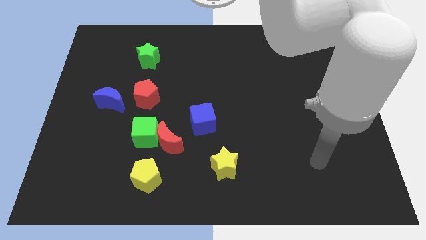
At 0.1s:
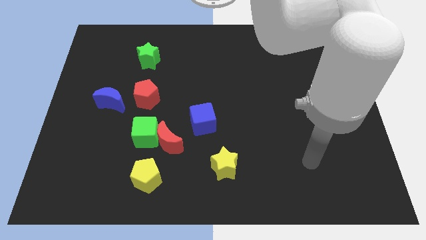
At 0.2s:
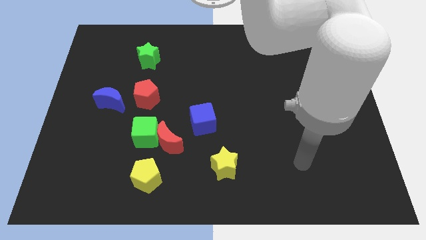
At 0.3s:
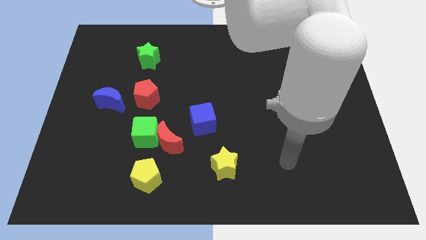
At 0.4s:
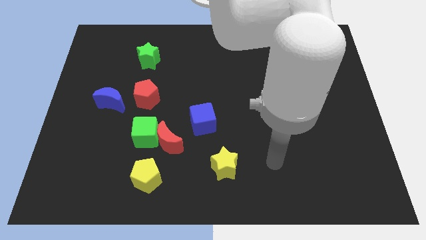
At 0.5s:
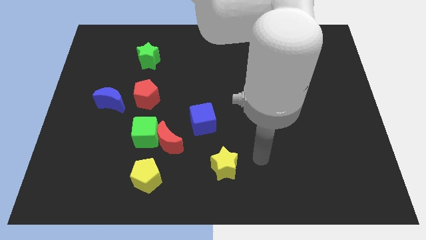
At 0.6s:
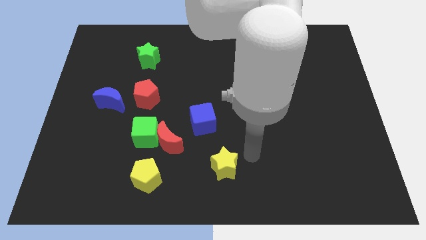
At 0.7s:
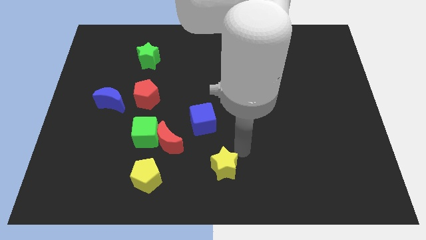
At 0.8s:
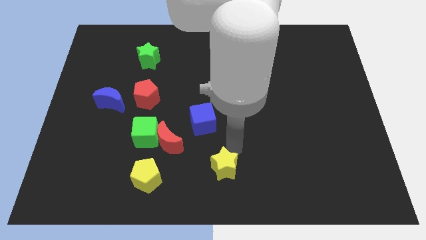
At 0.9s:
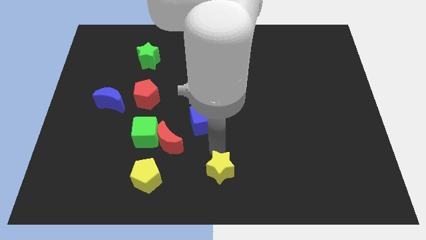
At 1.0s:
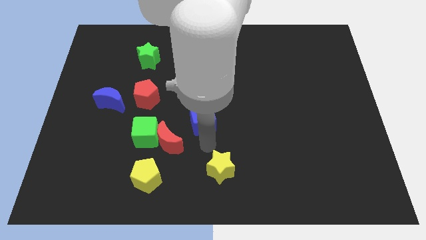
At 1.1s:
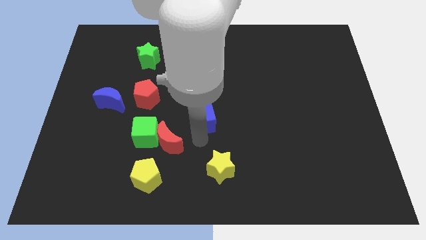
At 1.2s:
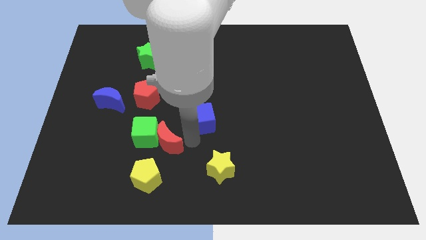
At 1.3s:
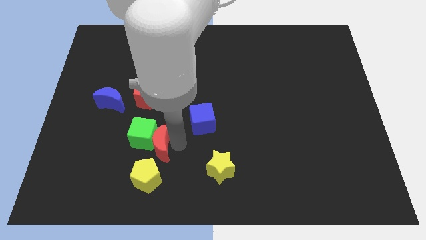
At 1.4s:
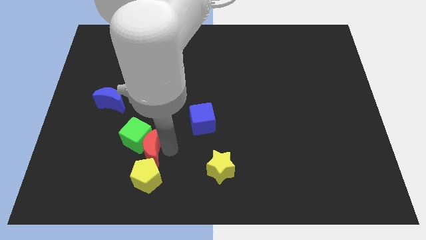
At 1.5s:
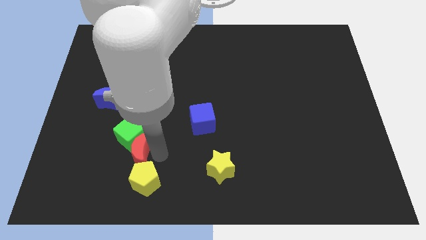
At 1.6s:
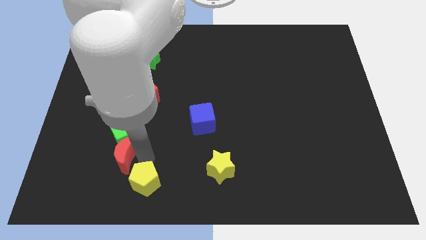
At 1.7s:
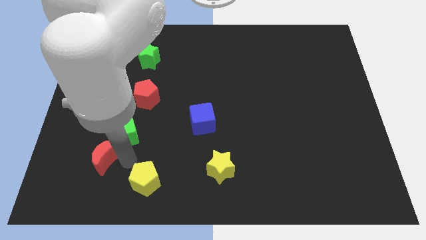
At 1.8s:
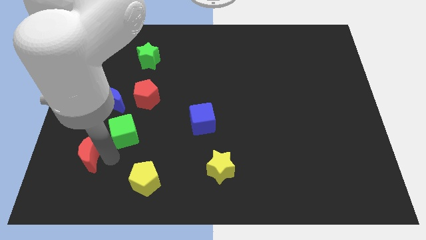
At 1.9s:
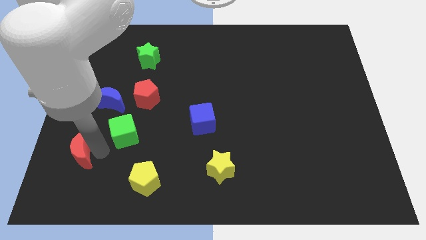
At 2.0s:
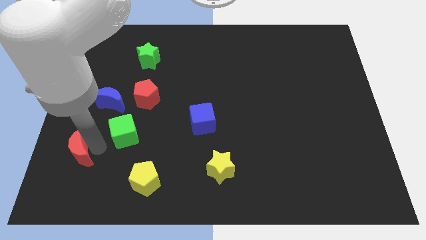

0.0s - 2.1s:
pull the green cube apart from the red moon

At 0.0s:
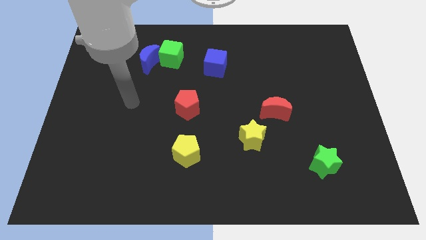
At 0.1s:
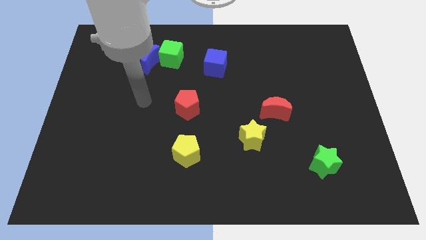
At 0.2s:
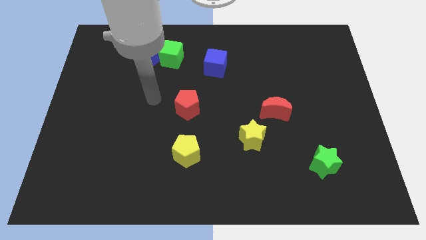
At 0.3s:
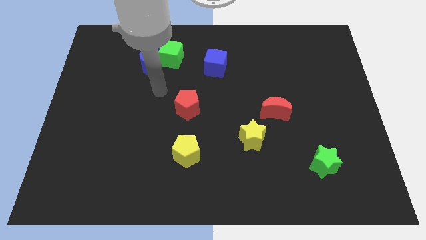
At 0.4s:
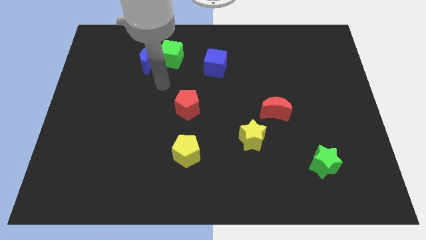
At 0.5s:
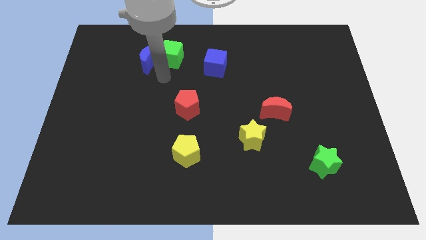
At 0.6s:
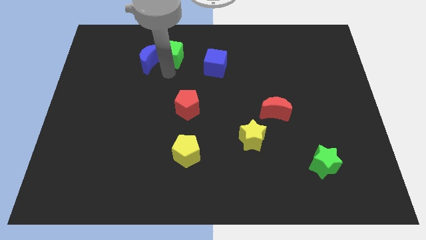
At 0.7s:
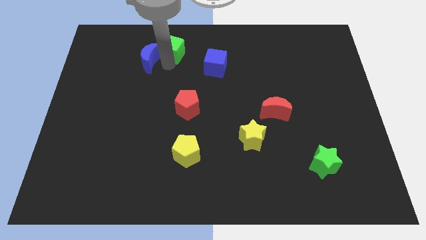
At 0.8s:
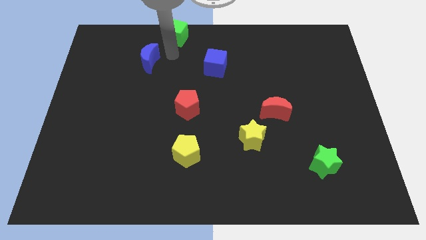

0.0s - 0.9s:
pull the blue moon apart from the green cube

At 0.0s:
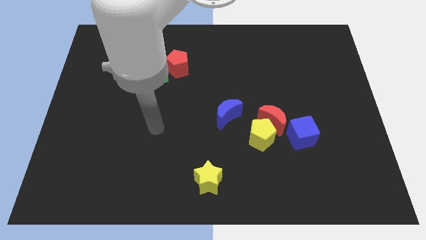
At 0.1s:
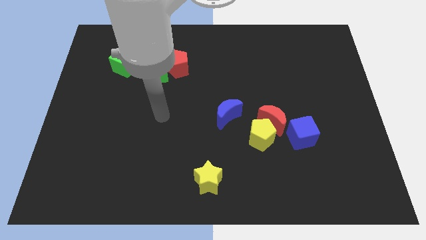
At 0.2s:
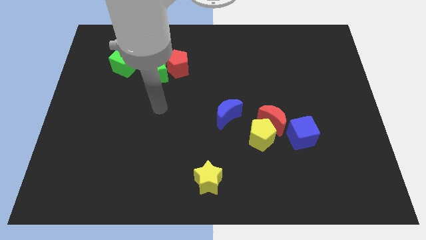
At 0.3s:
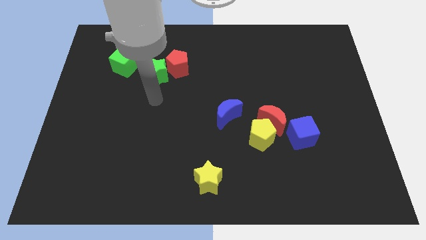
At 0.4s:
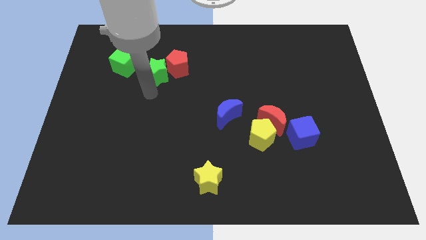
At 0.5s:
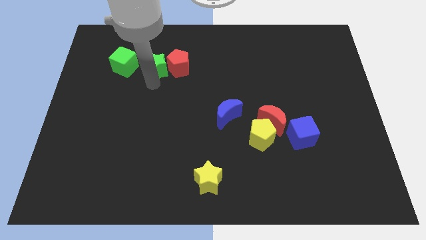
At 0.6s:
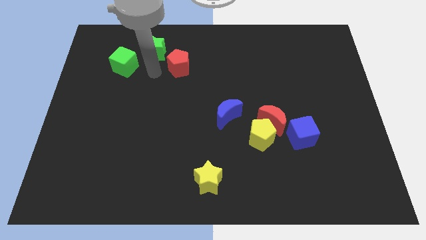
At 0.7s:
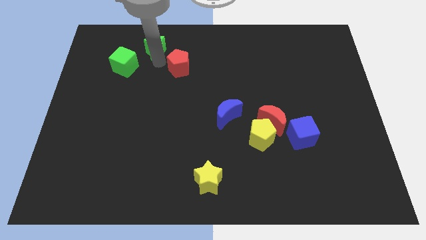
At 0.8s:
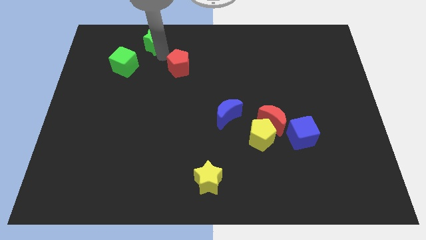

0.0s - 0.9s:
separate the red pentagon from the green star

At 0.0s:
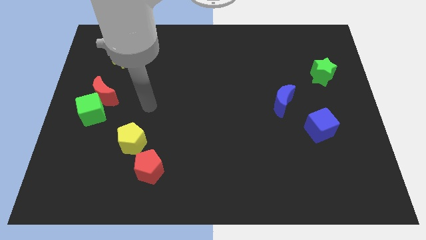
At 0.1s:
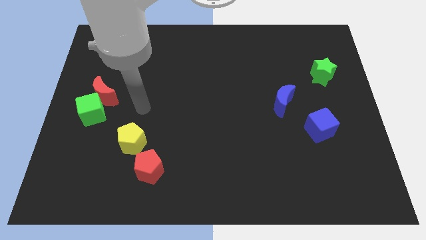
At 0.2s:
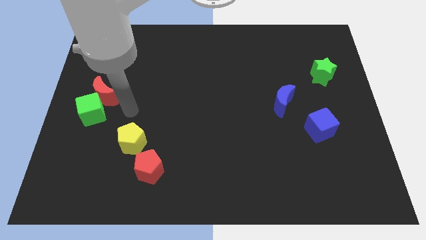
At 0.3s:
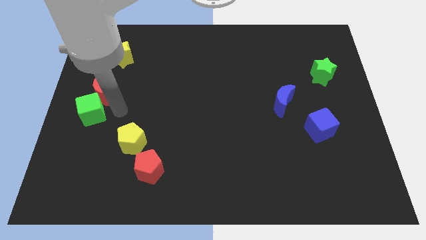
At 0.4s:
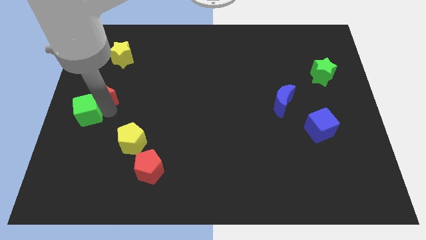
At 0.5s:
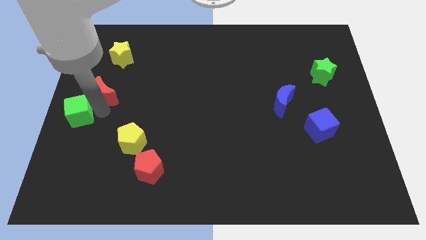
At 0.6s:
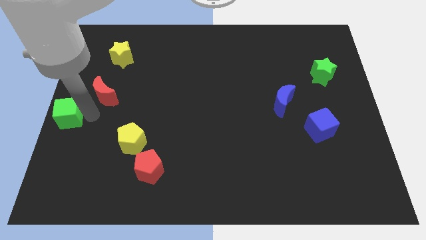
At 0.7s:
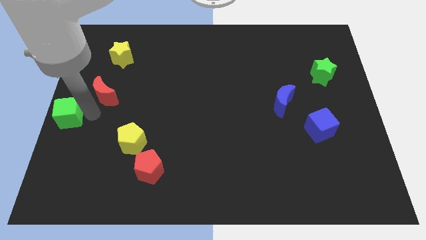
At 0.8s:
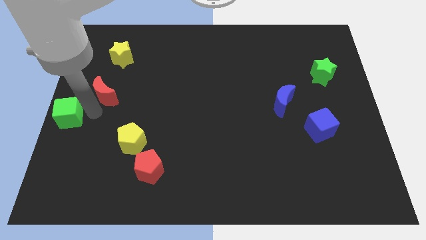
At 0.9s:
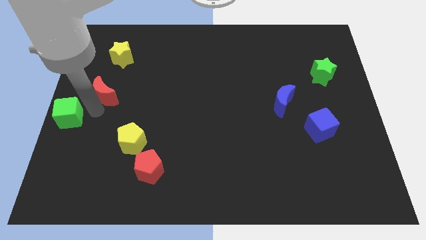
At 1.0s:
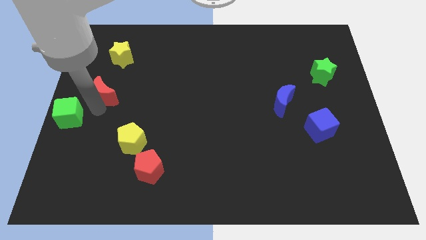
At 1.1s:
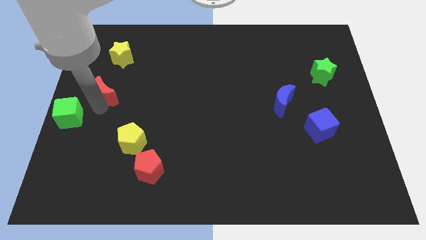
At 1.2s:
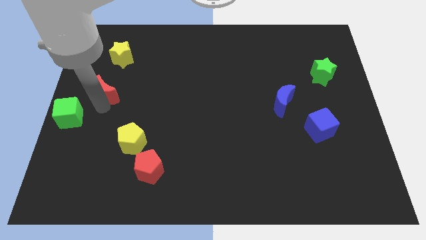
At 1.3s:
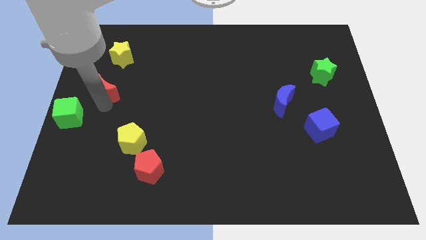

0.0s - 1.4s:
pull the red moon apart from the green cube

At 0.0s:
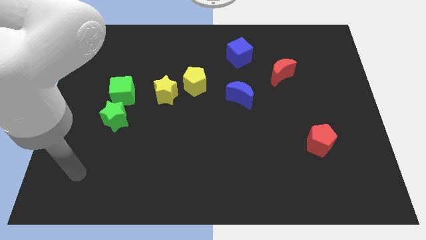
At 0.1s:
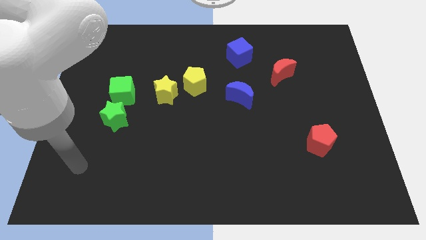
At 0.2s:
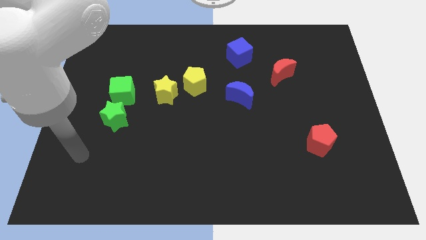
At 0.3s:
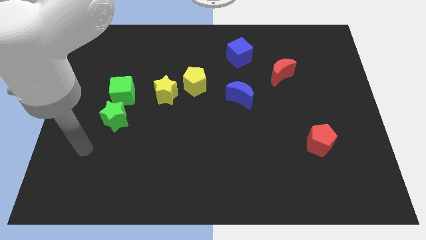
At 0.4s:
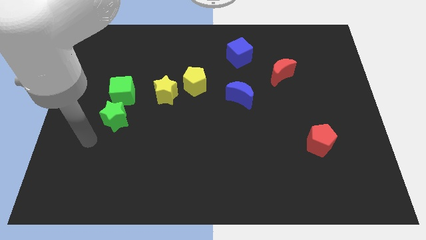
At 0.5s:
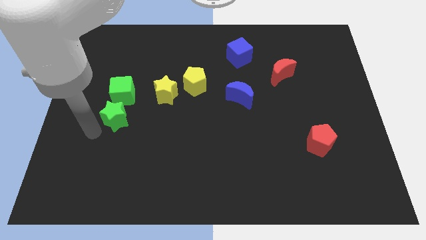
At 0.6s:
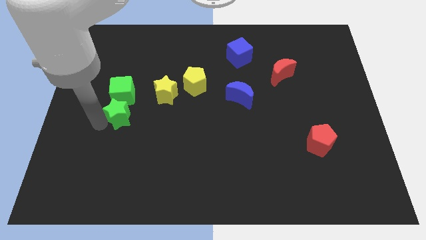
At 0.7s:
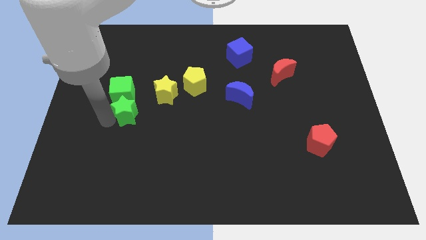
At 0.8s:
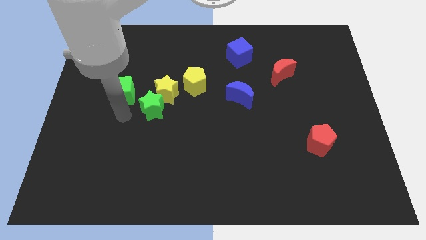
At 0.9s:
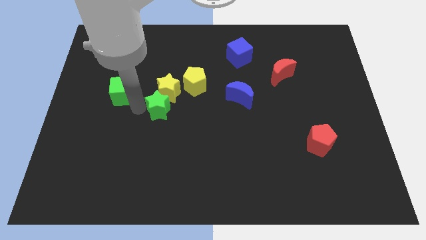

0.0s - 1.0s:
separate the green cube from the green star

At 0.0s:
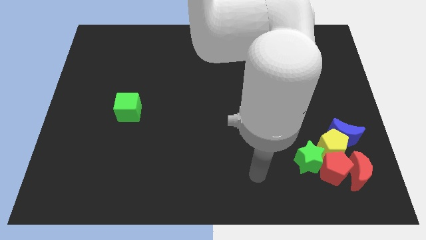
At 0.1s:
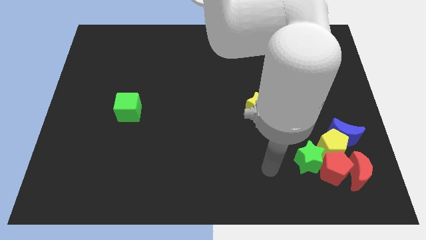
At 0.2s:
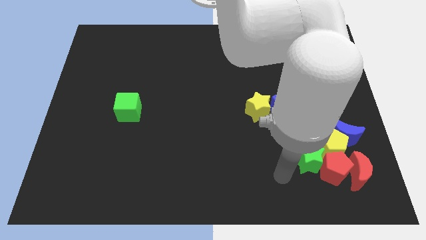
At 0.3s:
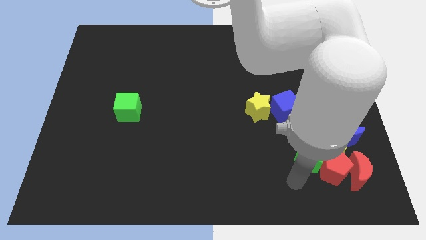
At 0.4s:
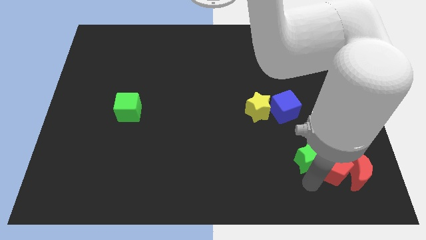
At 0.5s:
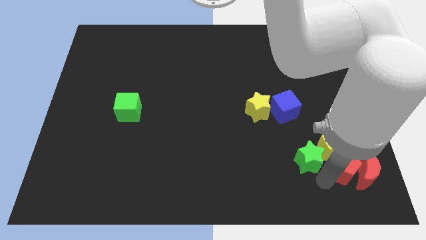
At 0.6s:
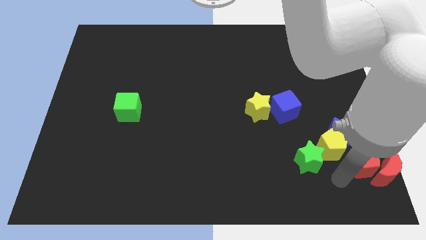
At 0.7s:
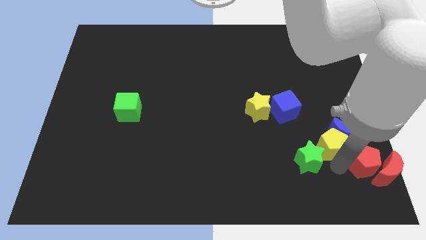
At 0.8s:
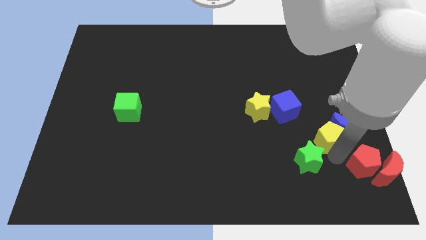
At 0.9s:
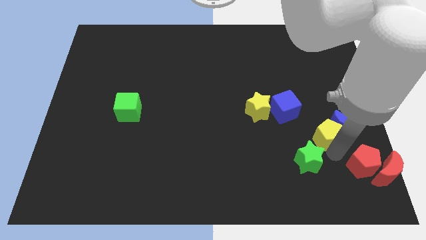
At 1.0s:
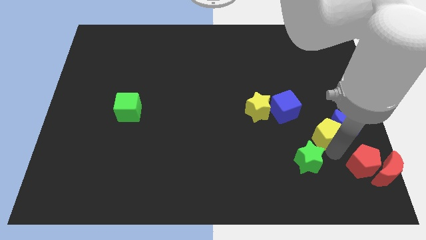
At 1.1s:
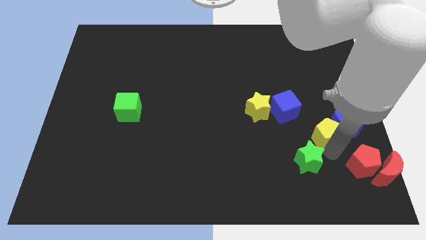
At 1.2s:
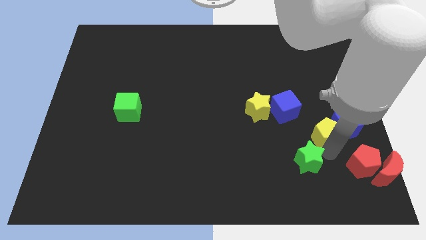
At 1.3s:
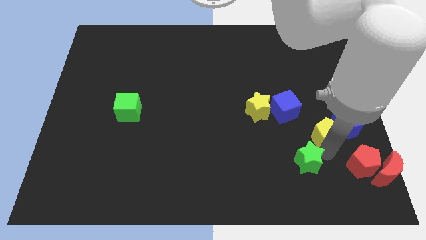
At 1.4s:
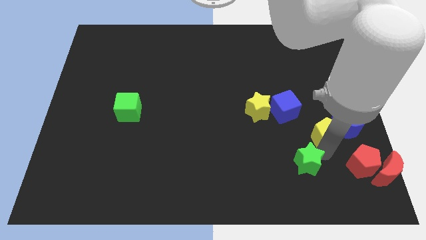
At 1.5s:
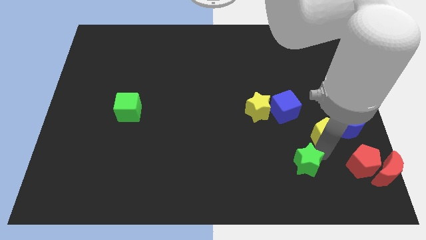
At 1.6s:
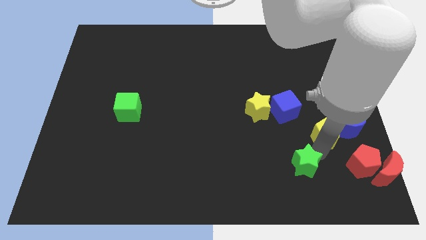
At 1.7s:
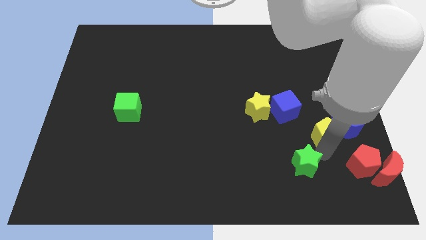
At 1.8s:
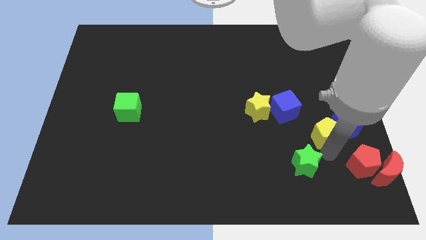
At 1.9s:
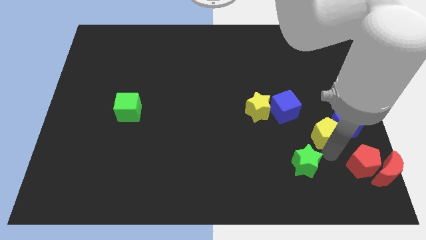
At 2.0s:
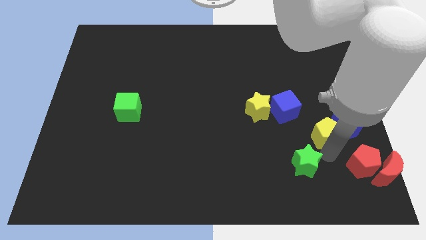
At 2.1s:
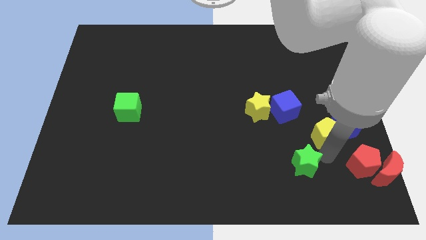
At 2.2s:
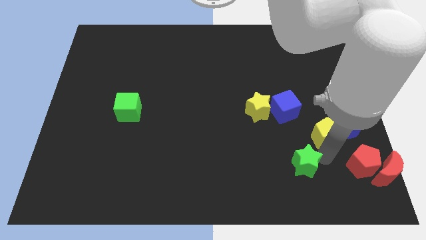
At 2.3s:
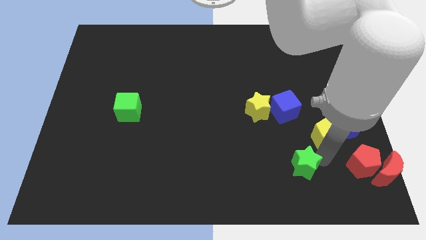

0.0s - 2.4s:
pull the green star apart from the red pentagon and yellow pentagon

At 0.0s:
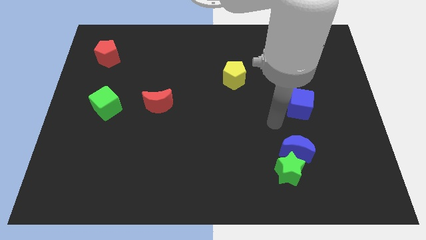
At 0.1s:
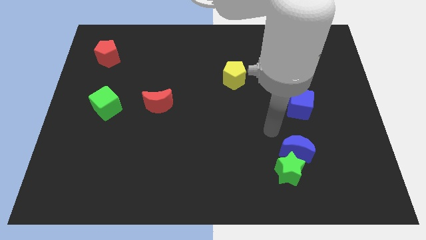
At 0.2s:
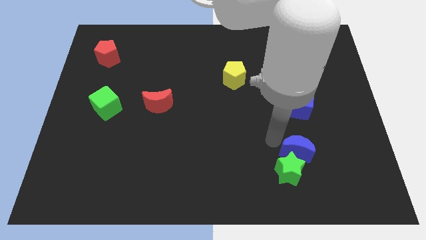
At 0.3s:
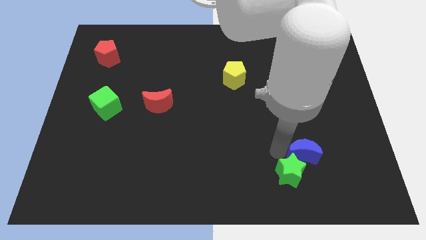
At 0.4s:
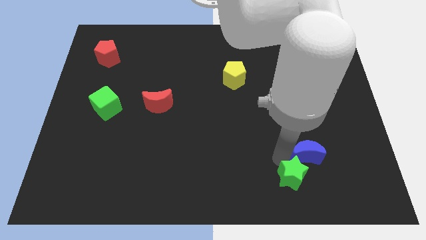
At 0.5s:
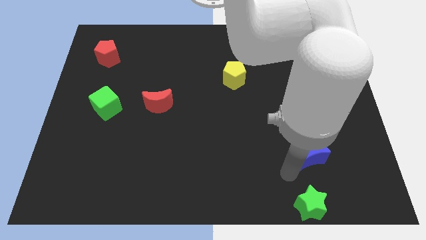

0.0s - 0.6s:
move the blue moon away from the green star
